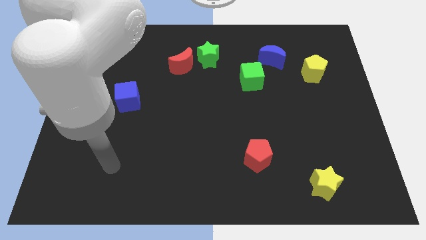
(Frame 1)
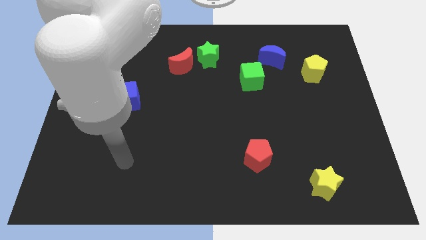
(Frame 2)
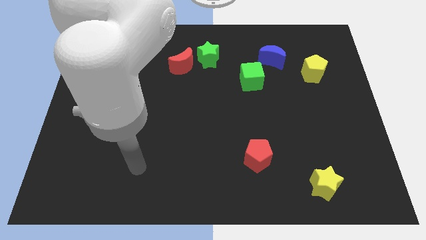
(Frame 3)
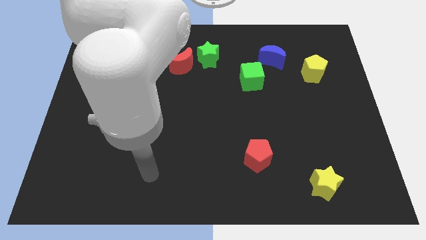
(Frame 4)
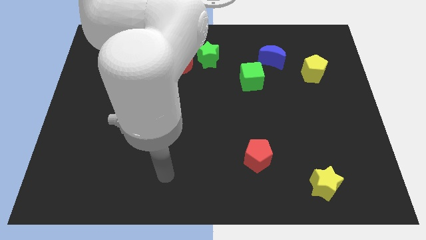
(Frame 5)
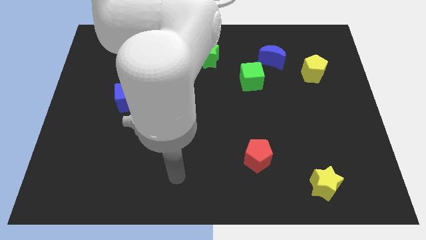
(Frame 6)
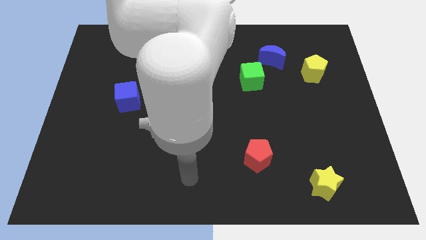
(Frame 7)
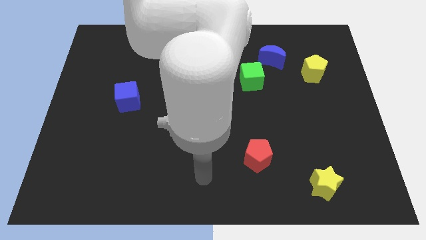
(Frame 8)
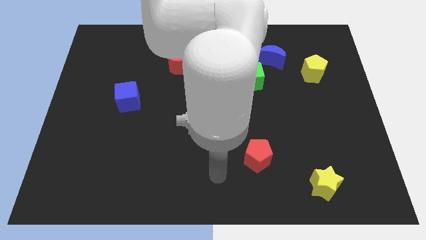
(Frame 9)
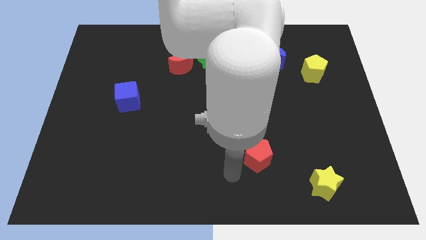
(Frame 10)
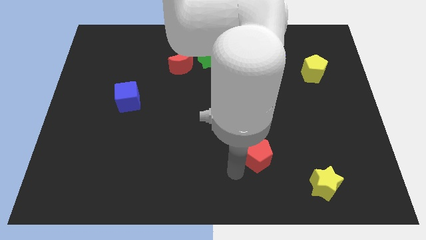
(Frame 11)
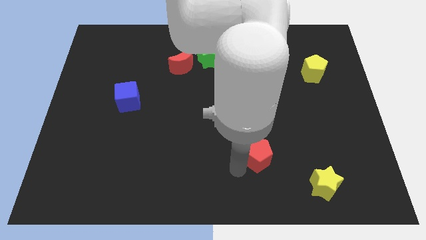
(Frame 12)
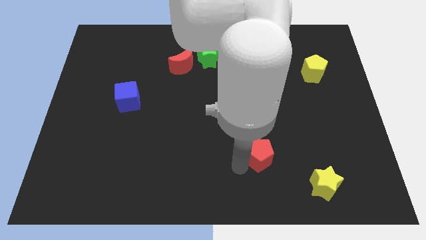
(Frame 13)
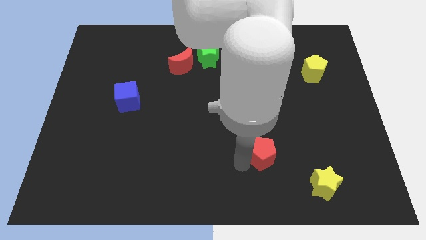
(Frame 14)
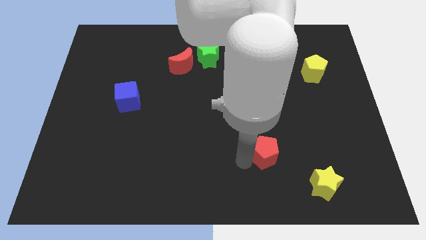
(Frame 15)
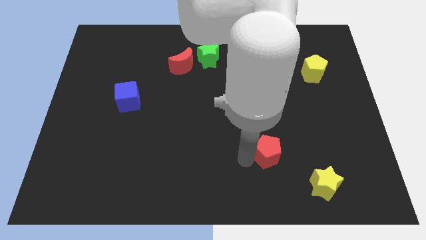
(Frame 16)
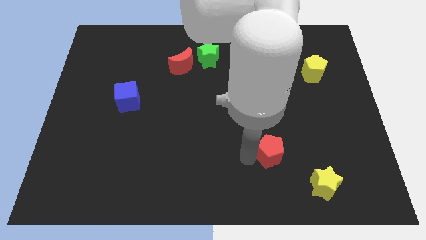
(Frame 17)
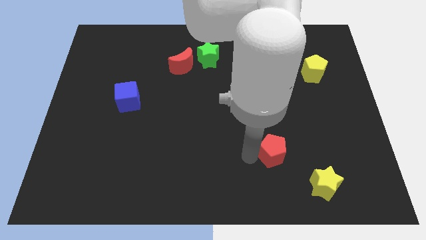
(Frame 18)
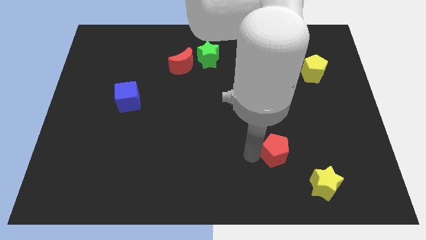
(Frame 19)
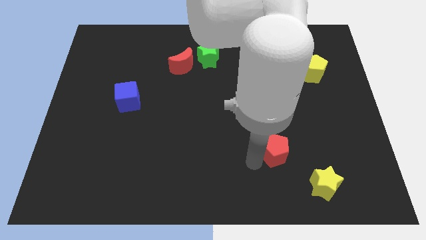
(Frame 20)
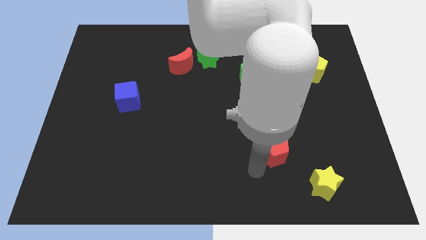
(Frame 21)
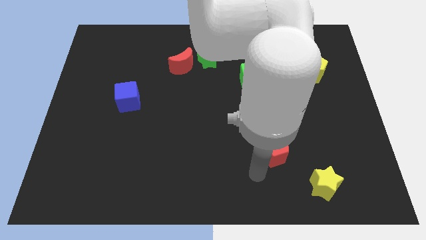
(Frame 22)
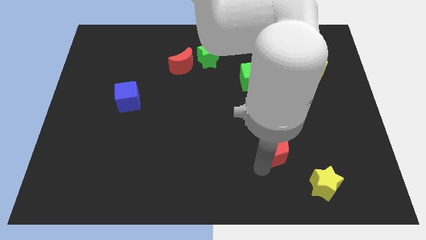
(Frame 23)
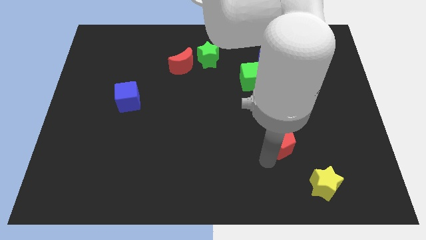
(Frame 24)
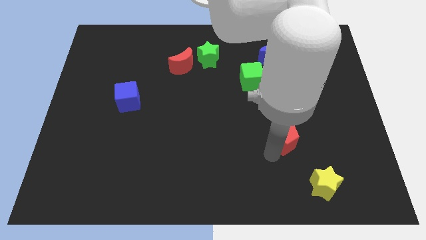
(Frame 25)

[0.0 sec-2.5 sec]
push the red pentagon upwards and then to the right slightly

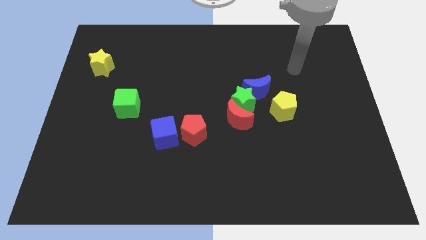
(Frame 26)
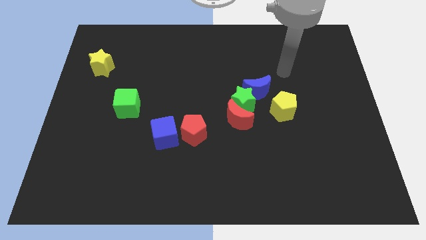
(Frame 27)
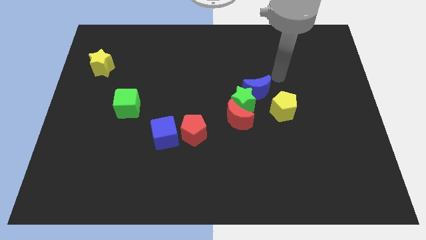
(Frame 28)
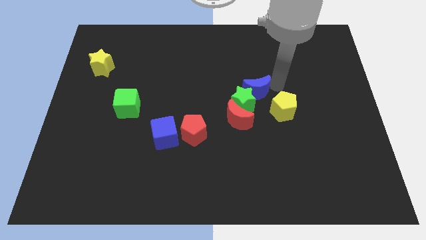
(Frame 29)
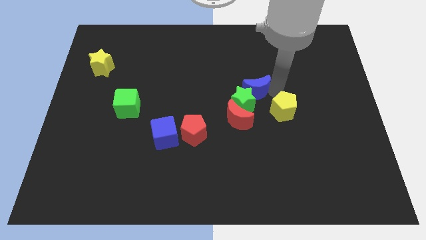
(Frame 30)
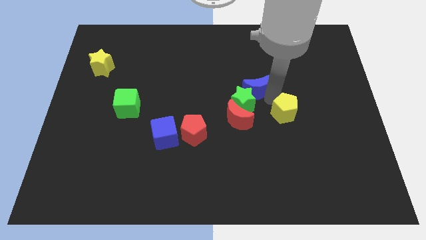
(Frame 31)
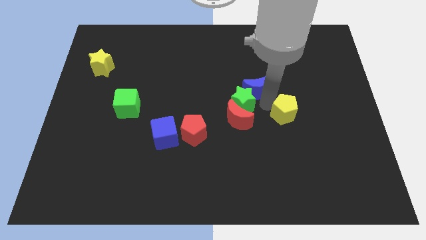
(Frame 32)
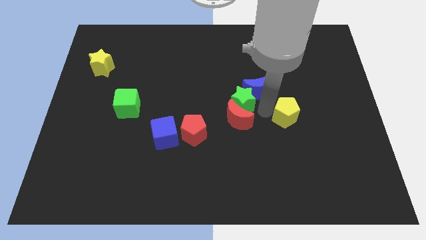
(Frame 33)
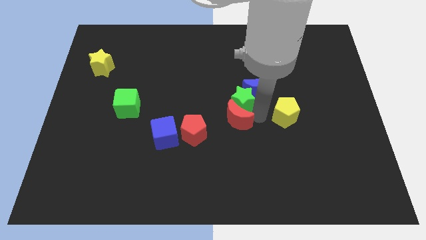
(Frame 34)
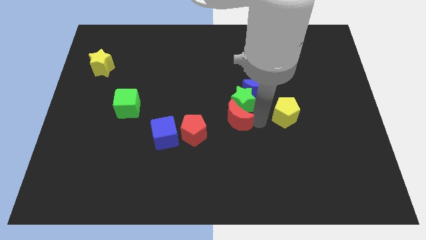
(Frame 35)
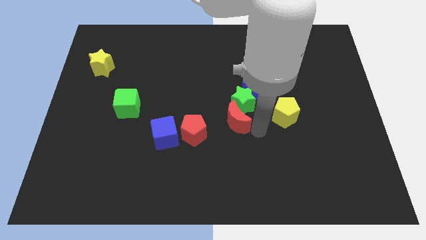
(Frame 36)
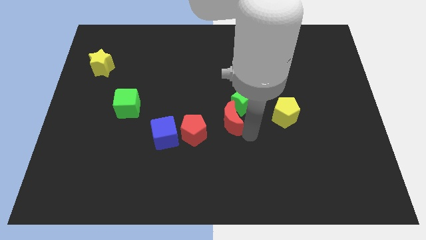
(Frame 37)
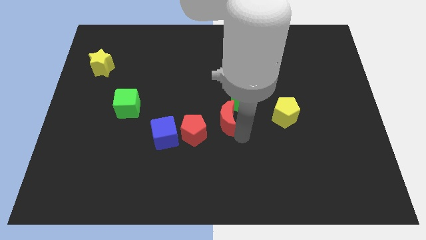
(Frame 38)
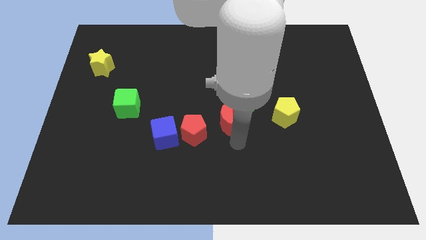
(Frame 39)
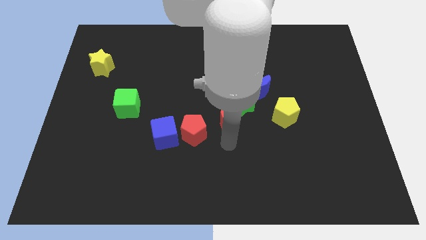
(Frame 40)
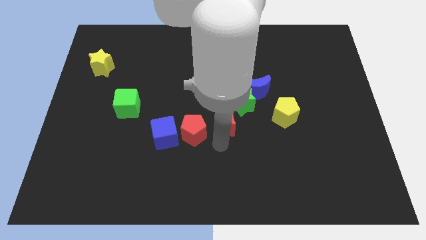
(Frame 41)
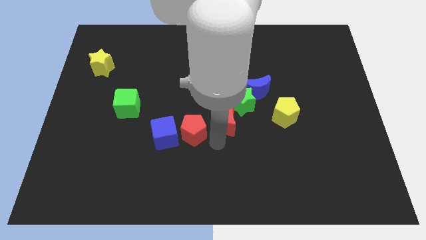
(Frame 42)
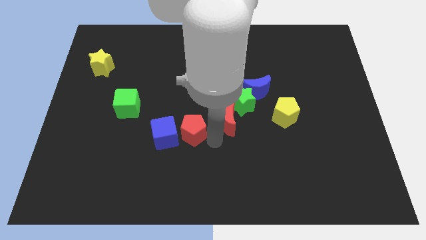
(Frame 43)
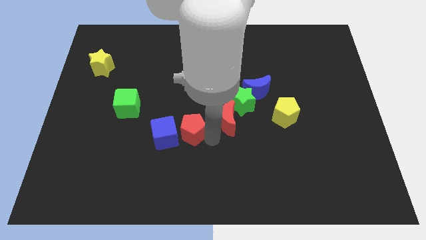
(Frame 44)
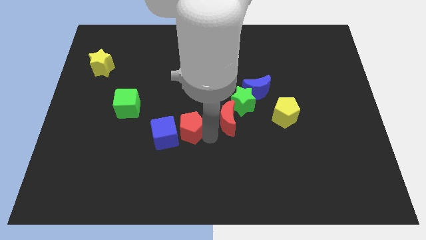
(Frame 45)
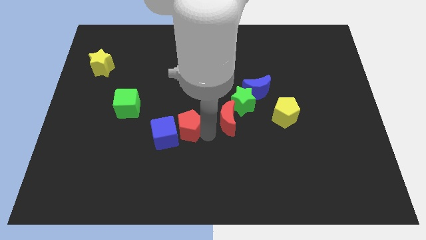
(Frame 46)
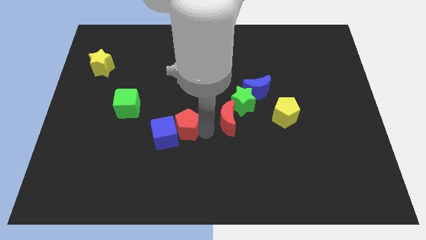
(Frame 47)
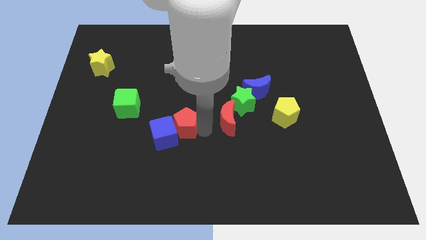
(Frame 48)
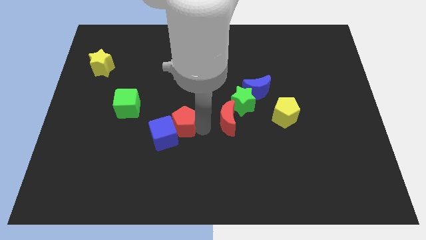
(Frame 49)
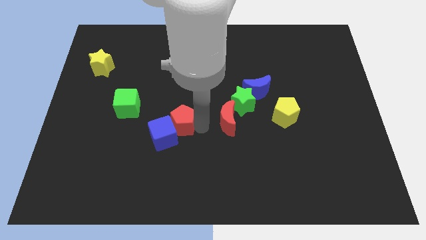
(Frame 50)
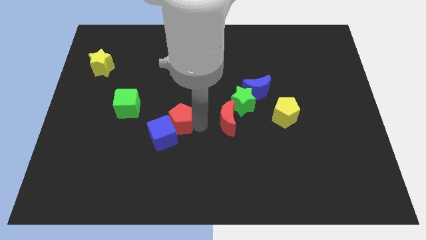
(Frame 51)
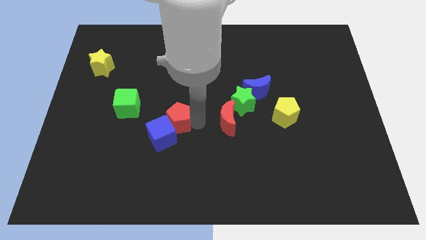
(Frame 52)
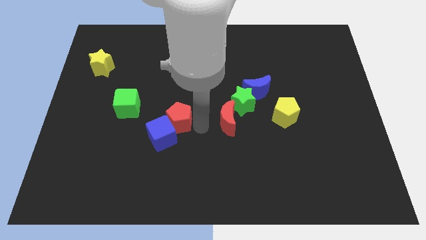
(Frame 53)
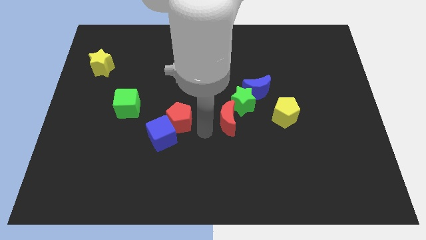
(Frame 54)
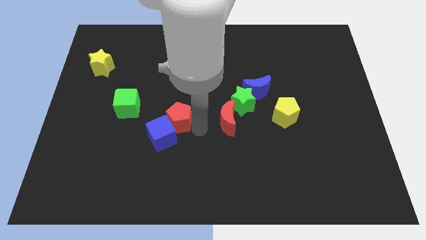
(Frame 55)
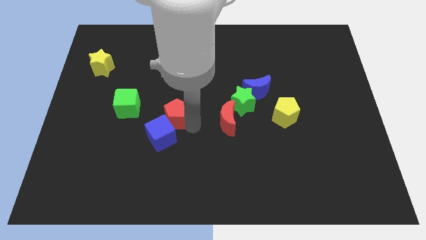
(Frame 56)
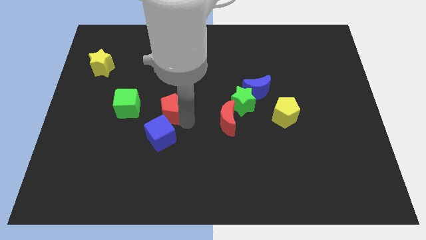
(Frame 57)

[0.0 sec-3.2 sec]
move the red pentagon a little diagonally up and to the left

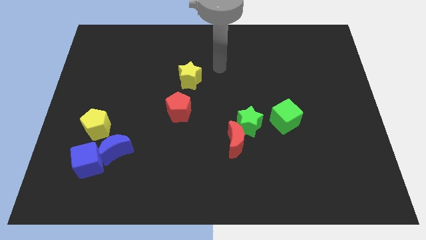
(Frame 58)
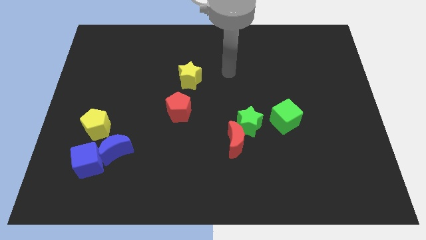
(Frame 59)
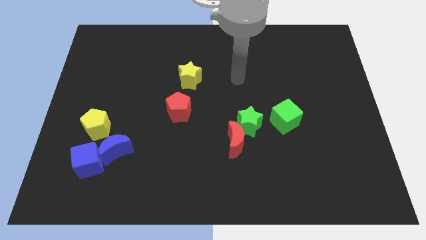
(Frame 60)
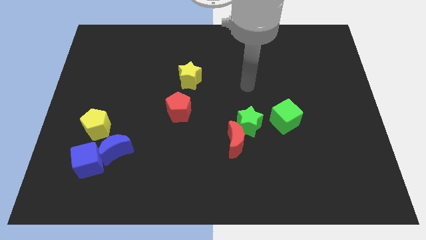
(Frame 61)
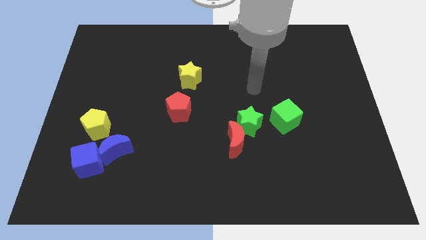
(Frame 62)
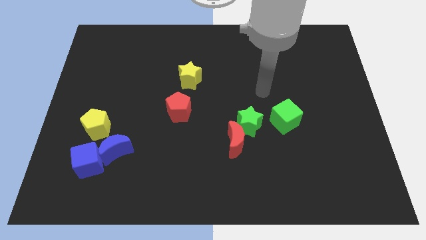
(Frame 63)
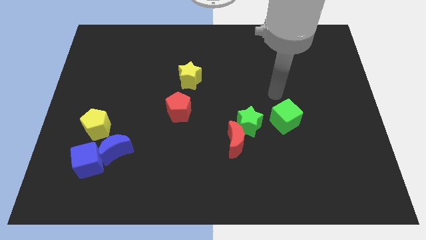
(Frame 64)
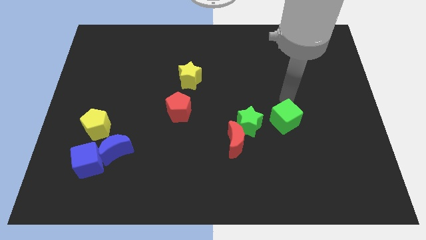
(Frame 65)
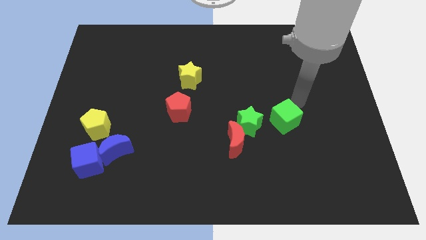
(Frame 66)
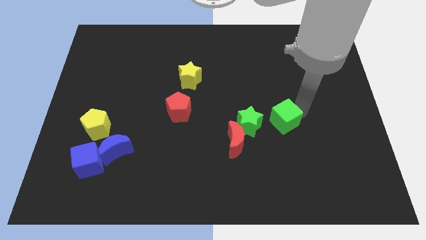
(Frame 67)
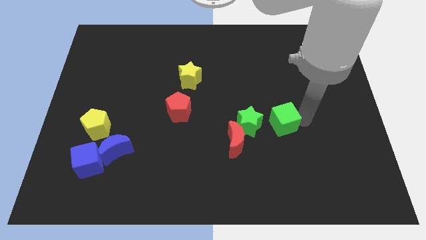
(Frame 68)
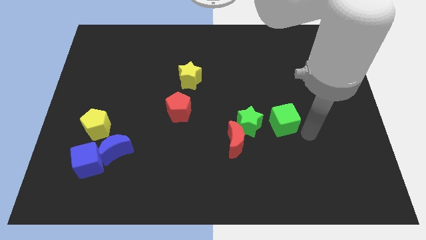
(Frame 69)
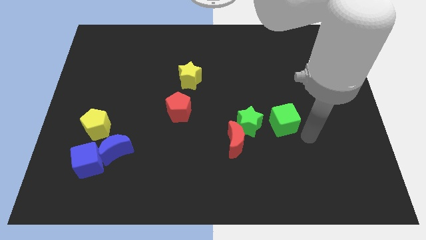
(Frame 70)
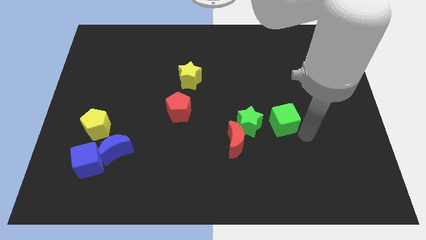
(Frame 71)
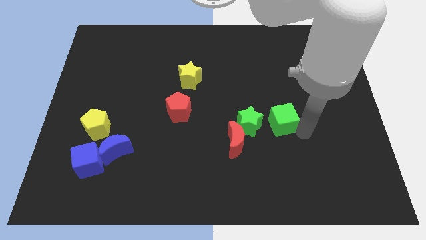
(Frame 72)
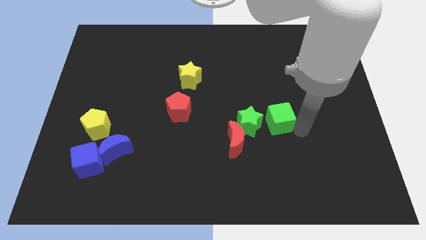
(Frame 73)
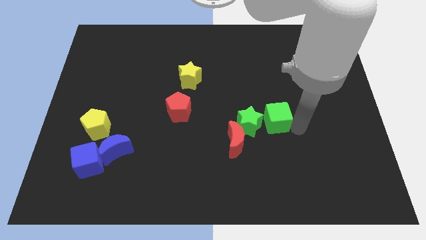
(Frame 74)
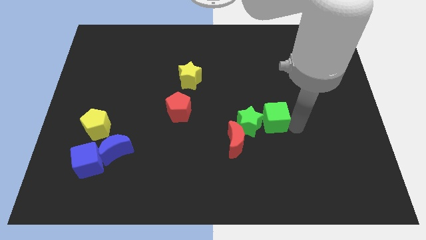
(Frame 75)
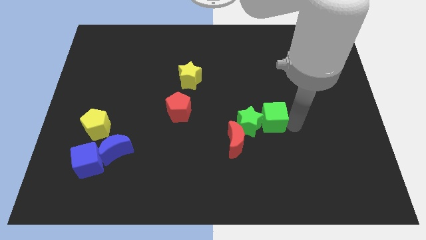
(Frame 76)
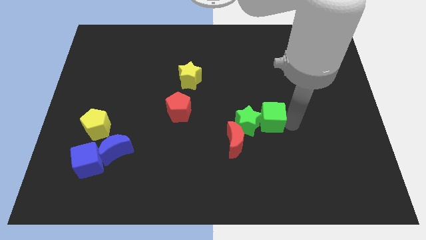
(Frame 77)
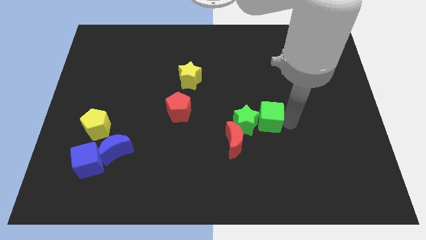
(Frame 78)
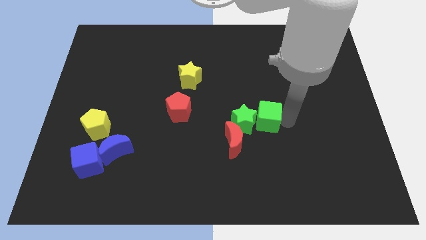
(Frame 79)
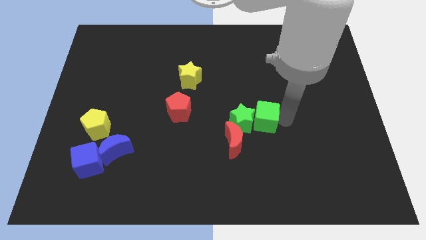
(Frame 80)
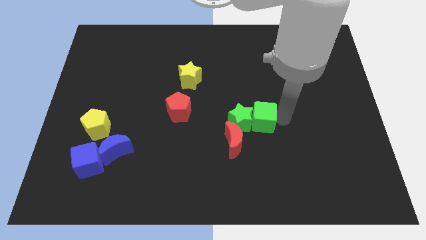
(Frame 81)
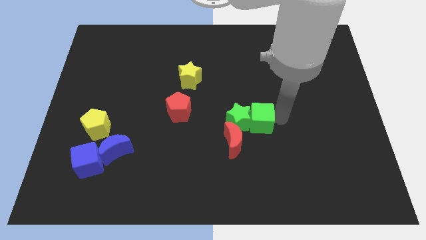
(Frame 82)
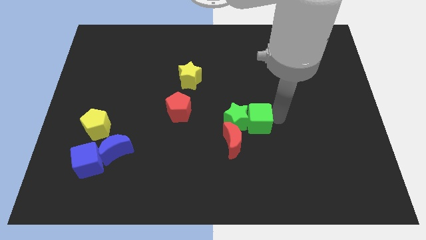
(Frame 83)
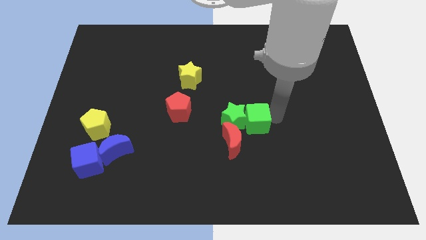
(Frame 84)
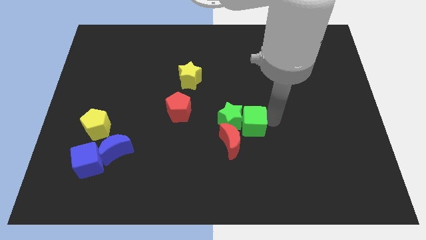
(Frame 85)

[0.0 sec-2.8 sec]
slightly move the green cube to the left
